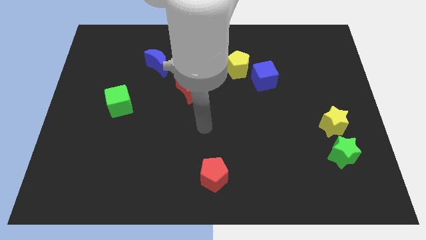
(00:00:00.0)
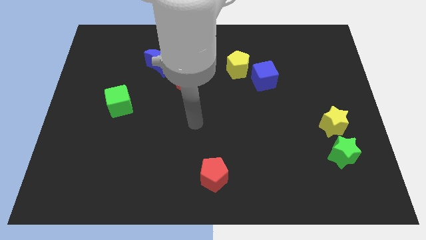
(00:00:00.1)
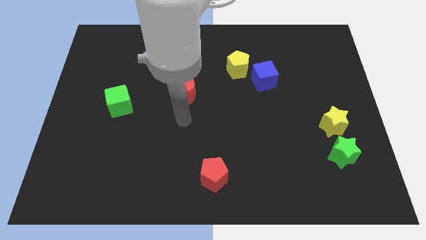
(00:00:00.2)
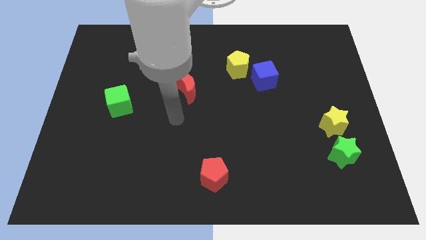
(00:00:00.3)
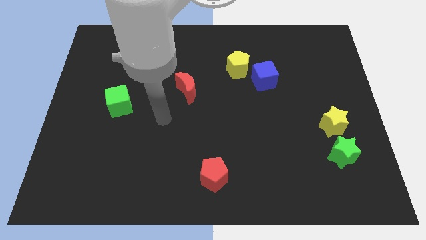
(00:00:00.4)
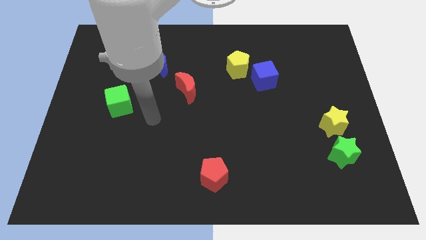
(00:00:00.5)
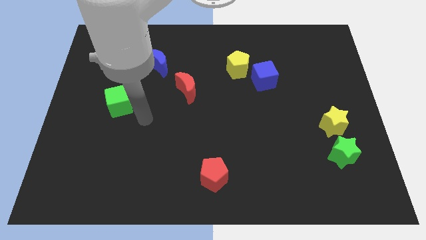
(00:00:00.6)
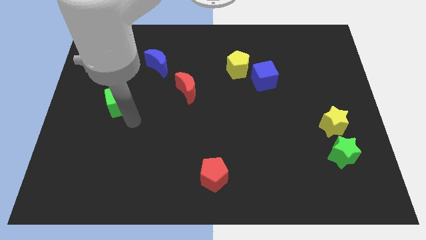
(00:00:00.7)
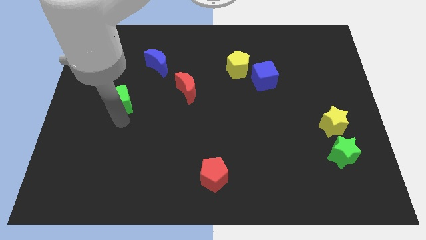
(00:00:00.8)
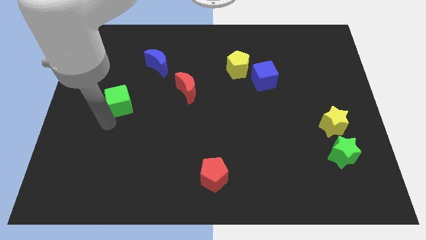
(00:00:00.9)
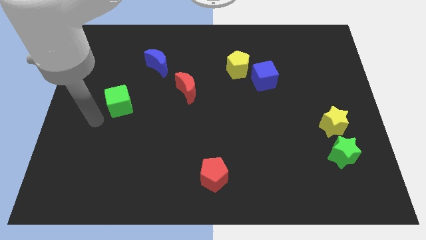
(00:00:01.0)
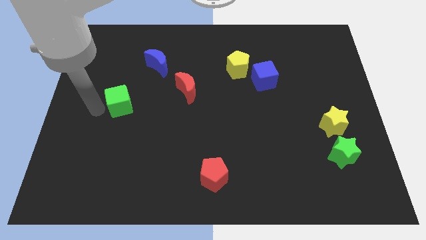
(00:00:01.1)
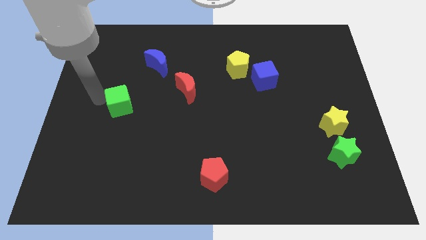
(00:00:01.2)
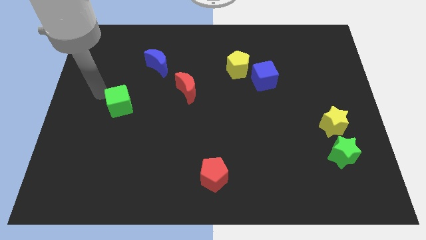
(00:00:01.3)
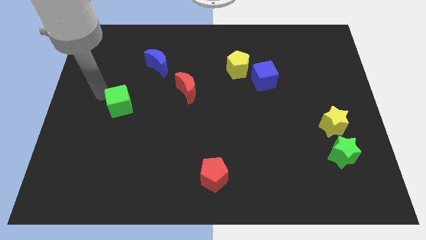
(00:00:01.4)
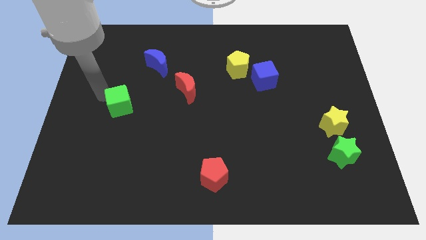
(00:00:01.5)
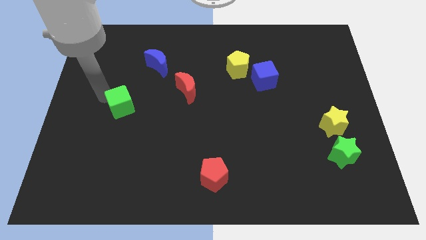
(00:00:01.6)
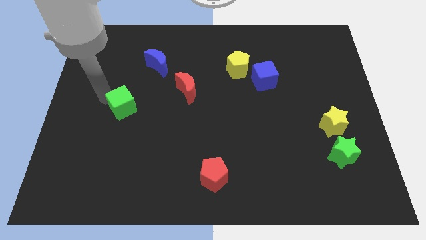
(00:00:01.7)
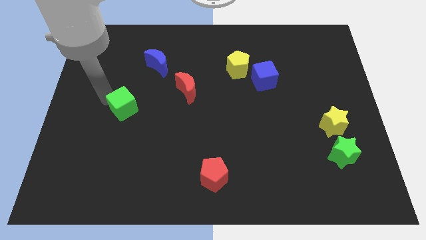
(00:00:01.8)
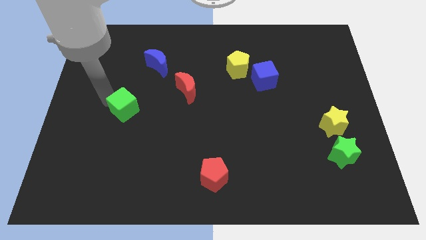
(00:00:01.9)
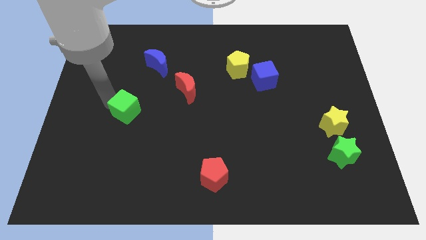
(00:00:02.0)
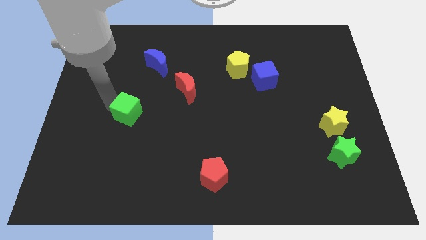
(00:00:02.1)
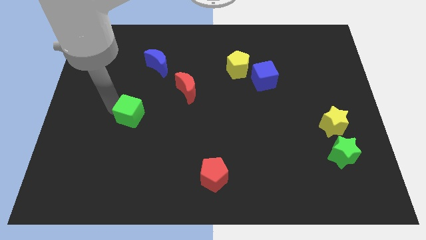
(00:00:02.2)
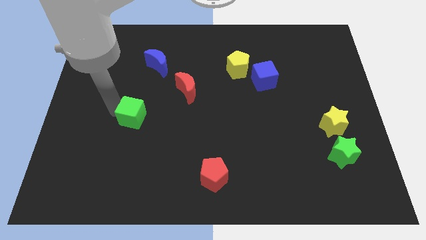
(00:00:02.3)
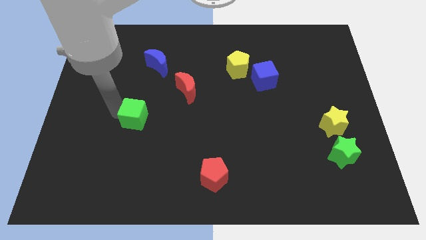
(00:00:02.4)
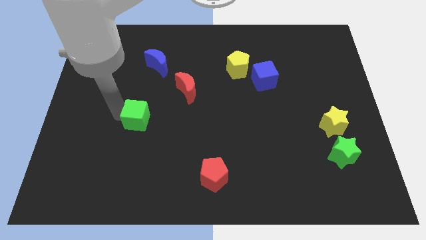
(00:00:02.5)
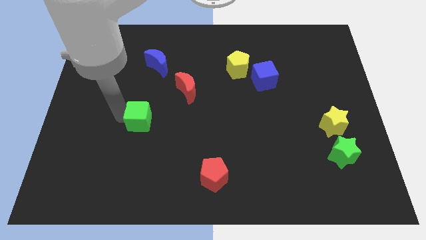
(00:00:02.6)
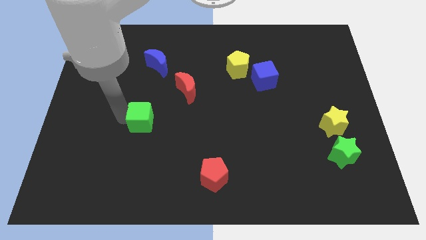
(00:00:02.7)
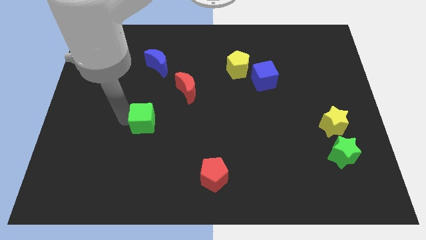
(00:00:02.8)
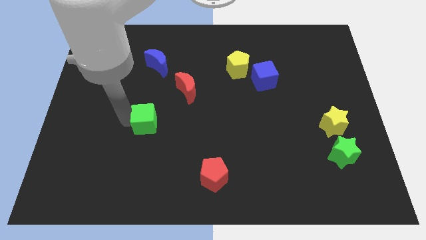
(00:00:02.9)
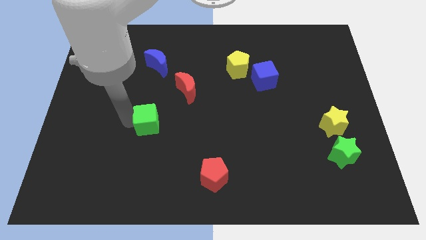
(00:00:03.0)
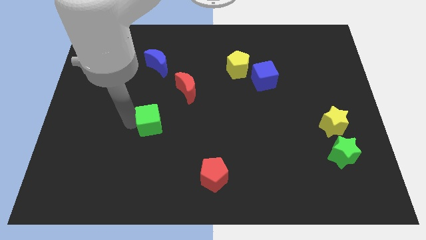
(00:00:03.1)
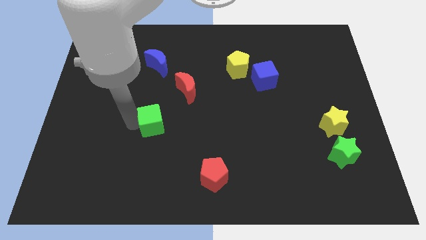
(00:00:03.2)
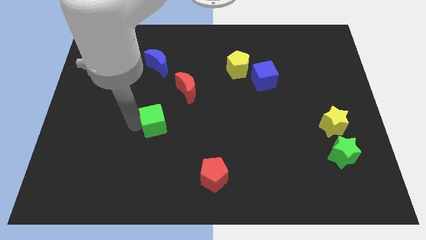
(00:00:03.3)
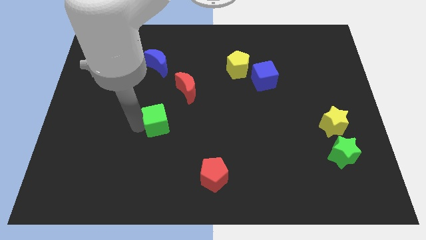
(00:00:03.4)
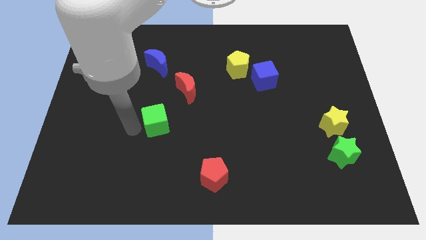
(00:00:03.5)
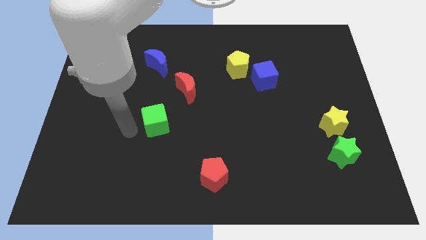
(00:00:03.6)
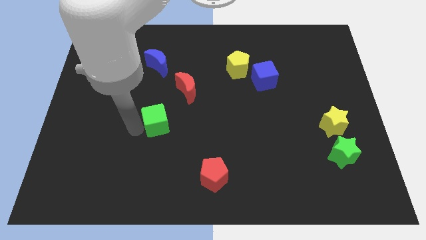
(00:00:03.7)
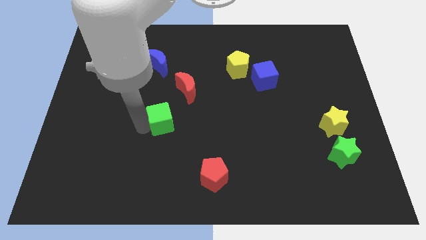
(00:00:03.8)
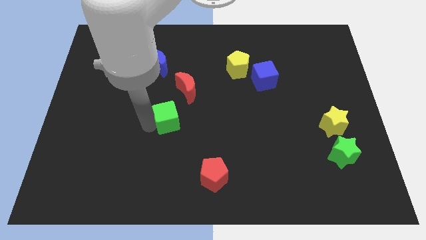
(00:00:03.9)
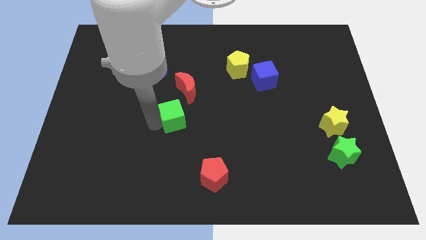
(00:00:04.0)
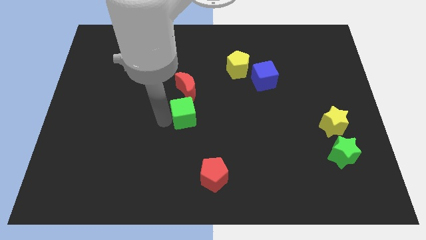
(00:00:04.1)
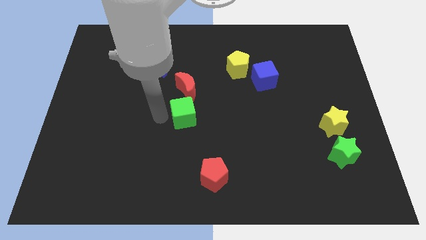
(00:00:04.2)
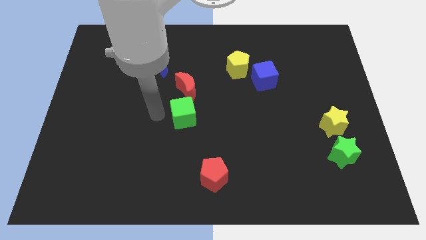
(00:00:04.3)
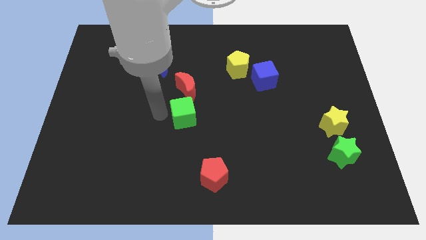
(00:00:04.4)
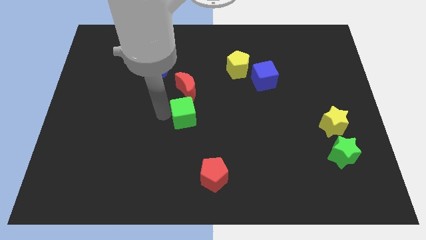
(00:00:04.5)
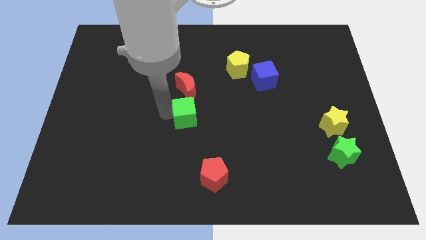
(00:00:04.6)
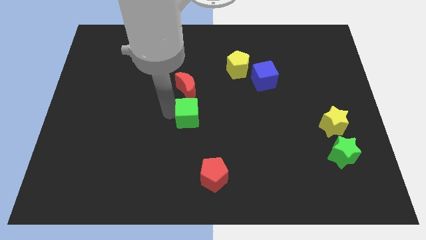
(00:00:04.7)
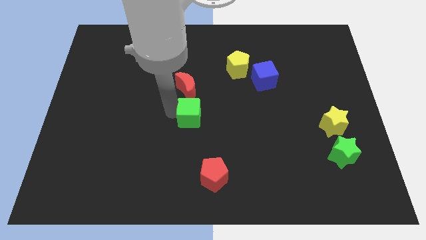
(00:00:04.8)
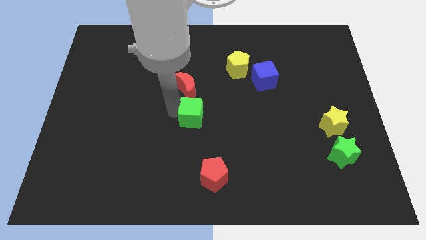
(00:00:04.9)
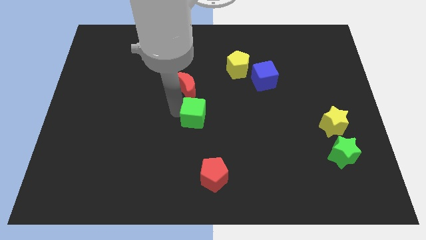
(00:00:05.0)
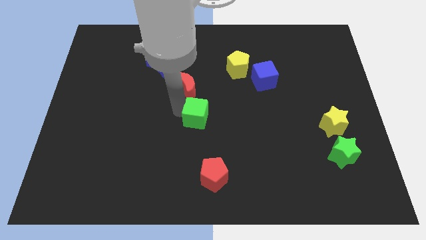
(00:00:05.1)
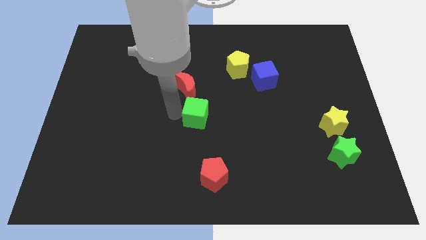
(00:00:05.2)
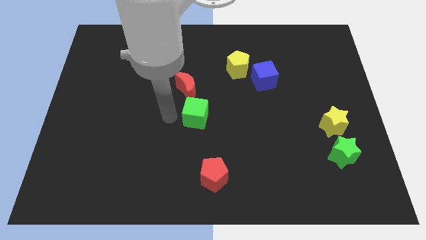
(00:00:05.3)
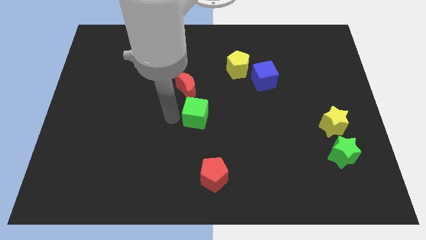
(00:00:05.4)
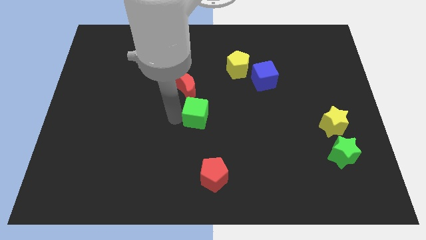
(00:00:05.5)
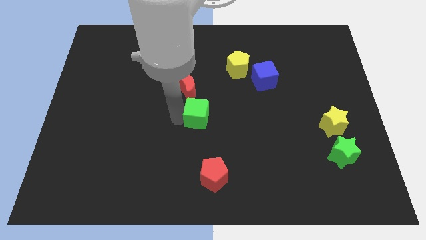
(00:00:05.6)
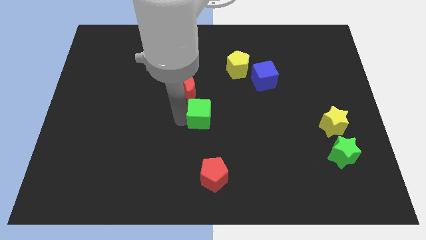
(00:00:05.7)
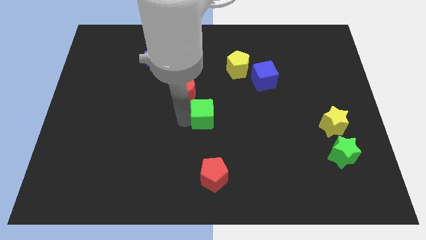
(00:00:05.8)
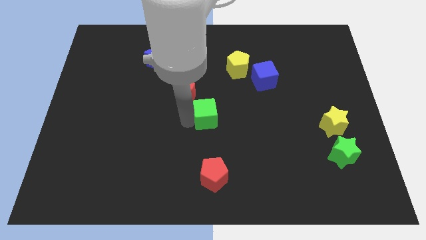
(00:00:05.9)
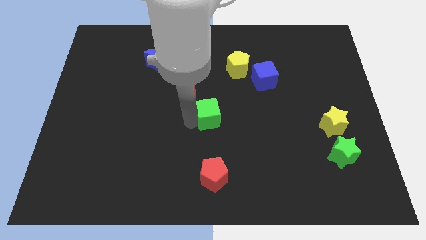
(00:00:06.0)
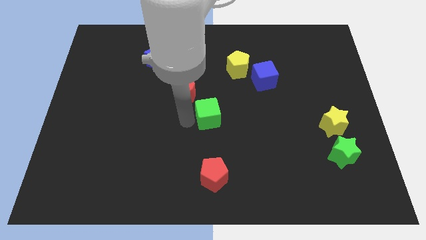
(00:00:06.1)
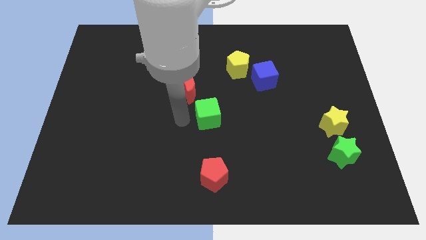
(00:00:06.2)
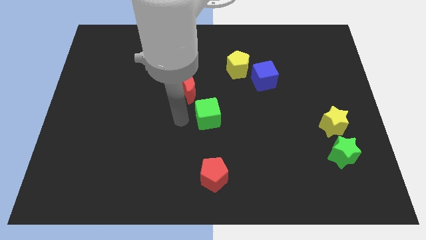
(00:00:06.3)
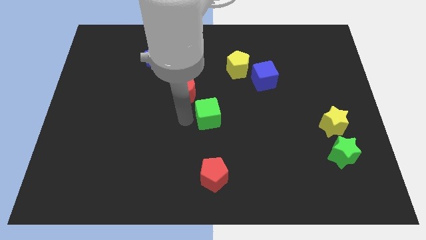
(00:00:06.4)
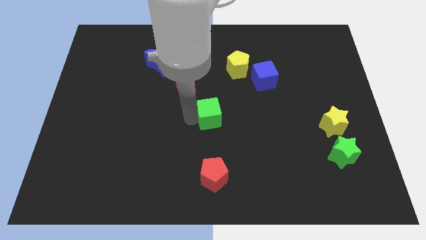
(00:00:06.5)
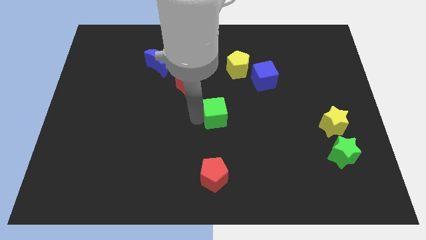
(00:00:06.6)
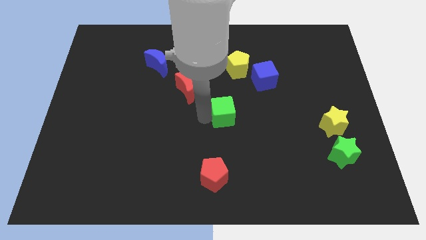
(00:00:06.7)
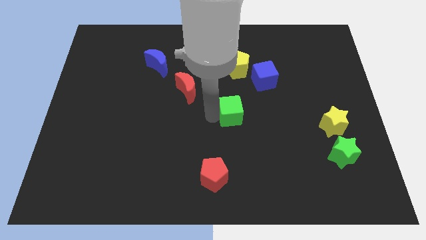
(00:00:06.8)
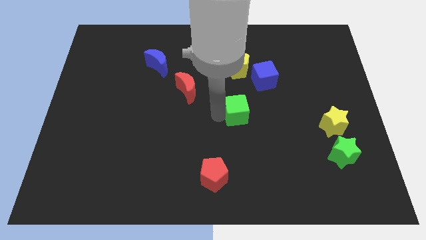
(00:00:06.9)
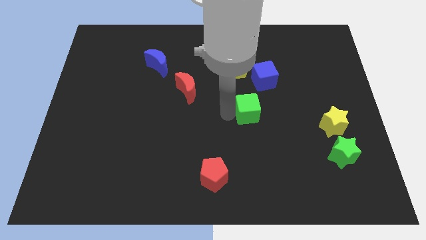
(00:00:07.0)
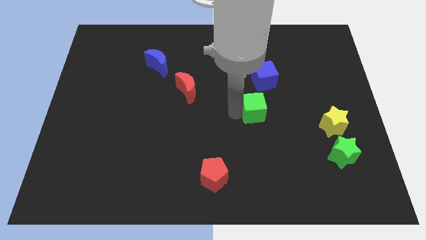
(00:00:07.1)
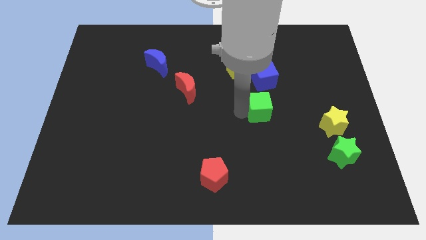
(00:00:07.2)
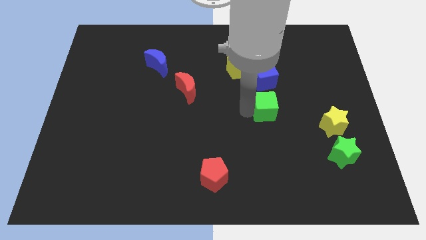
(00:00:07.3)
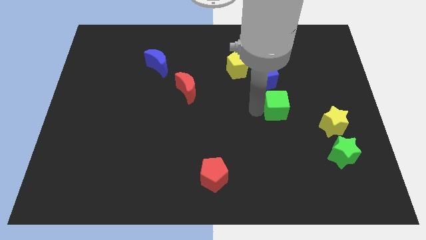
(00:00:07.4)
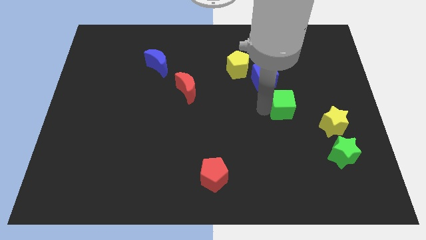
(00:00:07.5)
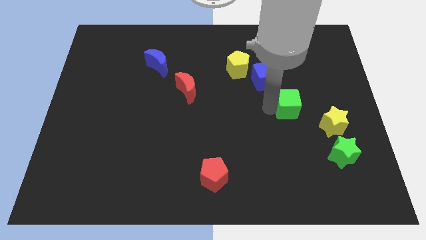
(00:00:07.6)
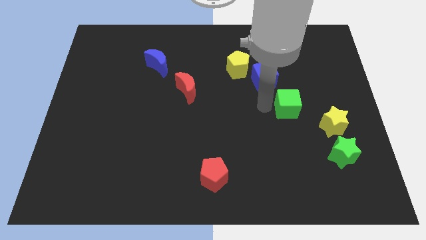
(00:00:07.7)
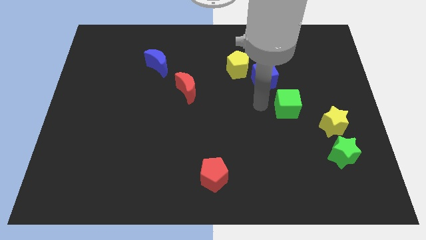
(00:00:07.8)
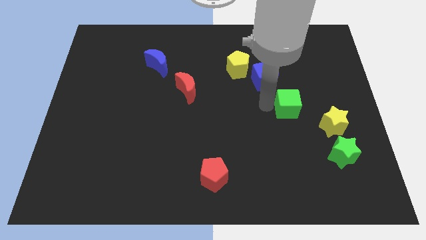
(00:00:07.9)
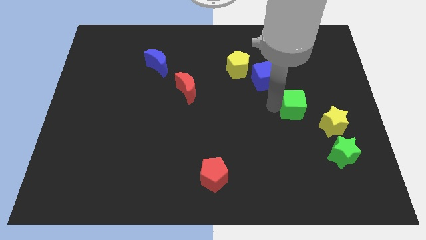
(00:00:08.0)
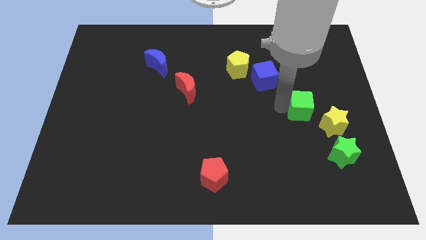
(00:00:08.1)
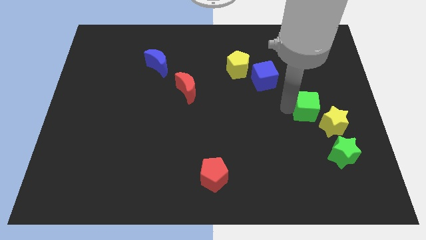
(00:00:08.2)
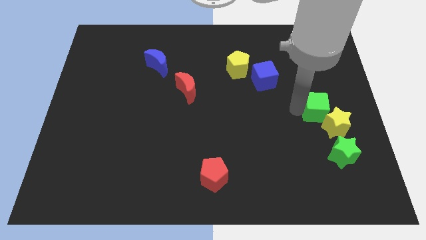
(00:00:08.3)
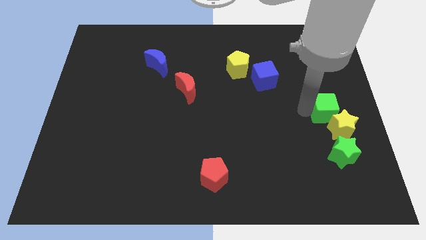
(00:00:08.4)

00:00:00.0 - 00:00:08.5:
push the green cube to the center right
